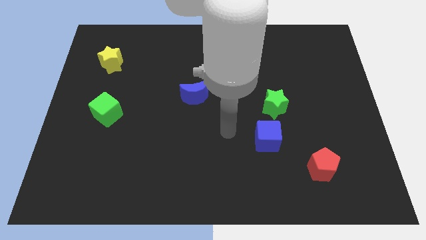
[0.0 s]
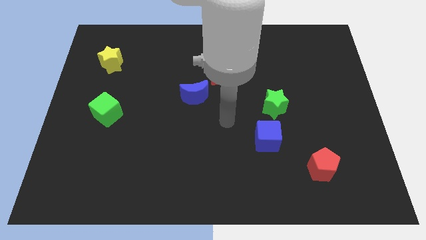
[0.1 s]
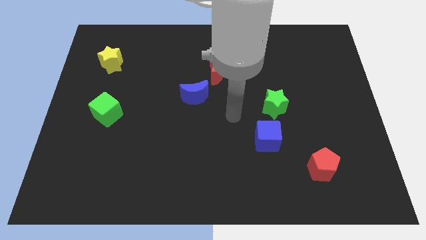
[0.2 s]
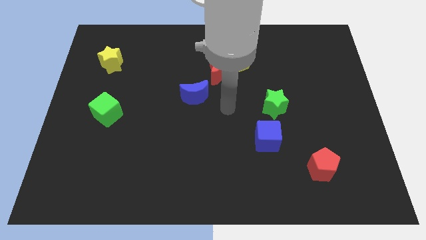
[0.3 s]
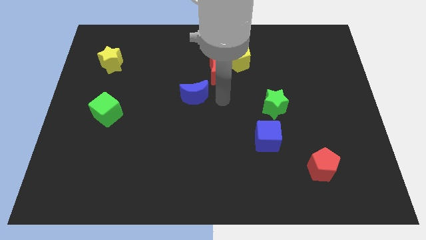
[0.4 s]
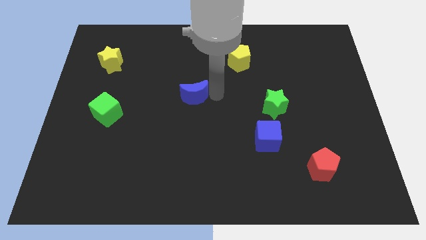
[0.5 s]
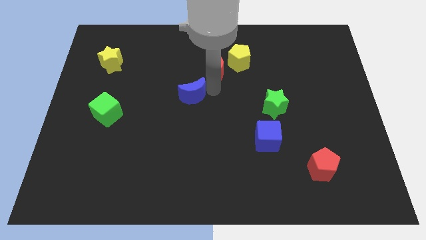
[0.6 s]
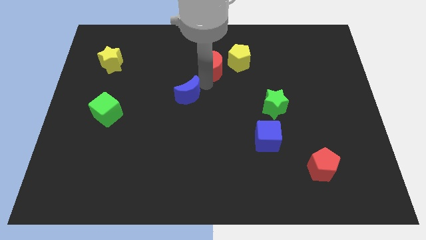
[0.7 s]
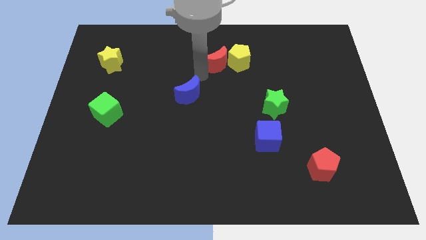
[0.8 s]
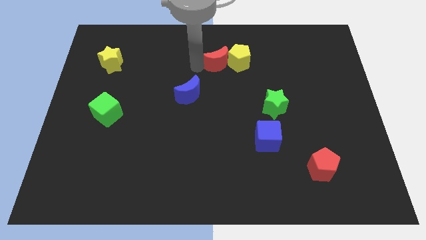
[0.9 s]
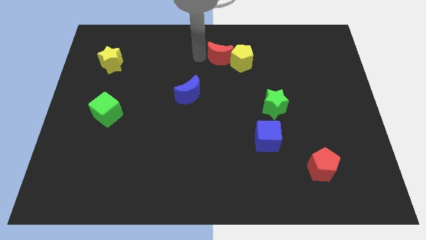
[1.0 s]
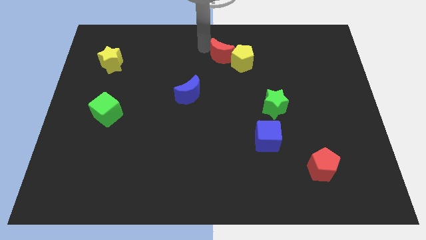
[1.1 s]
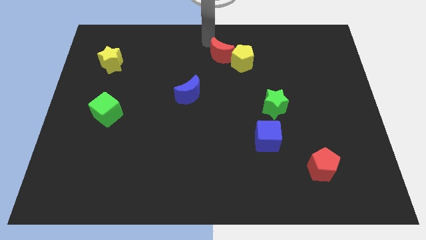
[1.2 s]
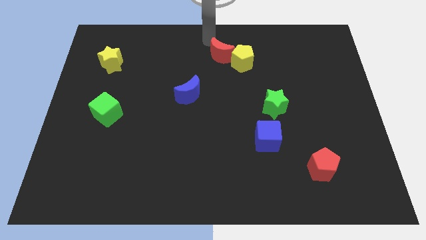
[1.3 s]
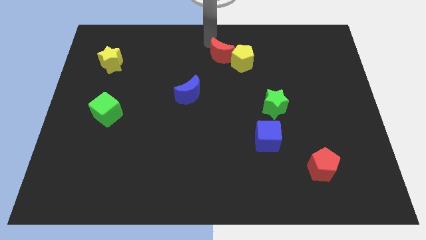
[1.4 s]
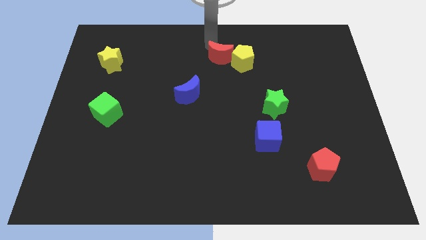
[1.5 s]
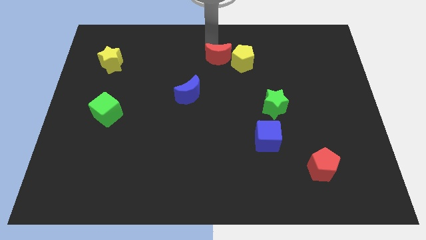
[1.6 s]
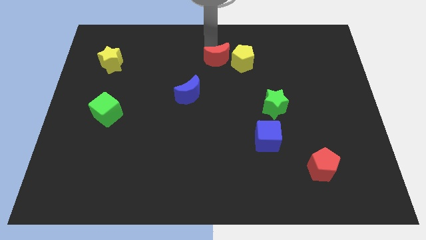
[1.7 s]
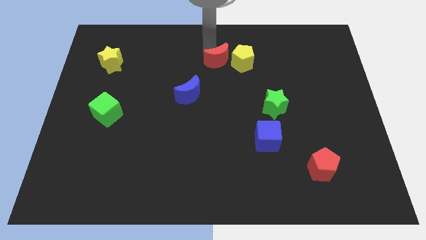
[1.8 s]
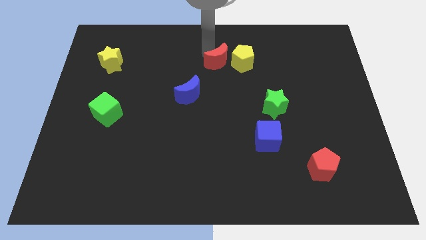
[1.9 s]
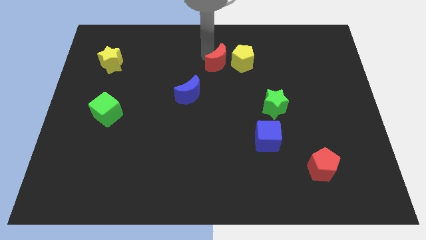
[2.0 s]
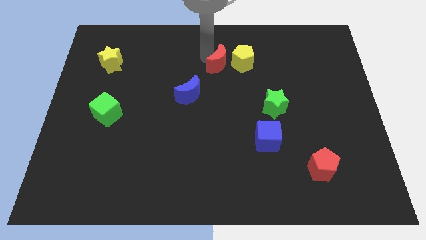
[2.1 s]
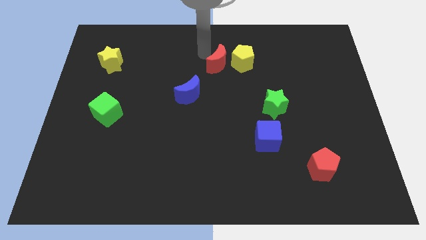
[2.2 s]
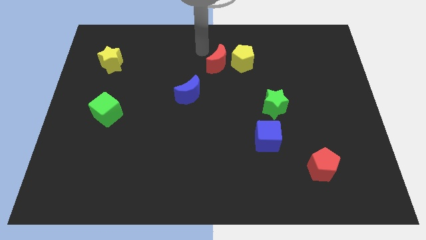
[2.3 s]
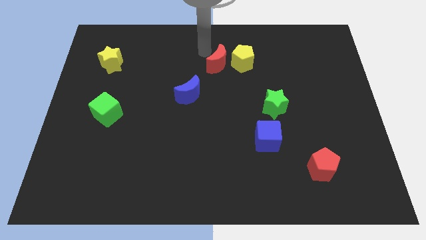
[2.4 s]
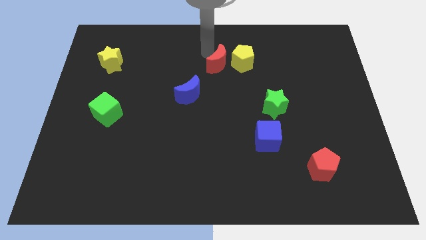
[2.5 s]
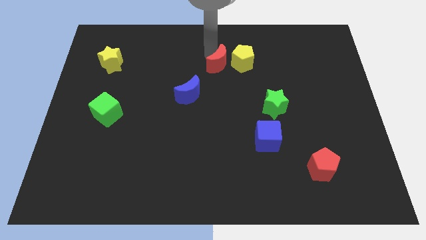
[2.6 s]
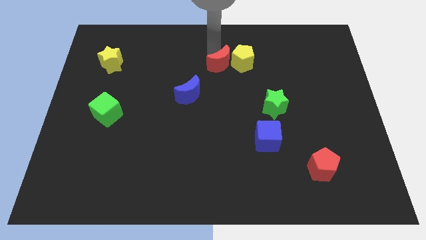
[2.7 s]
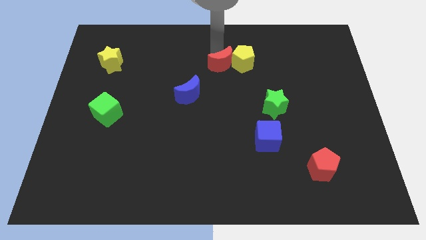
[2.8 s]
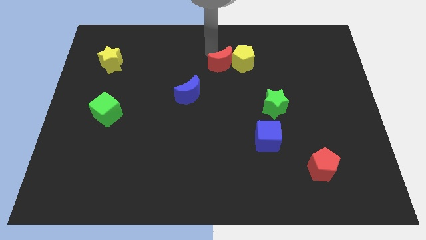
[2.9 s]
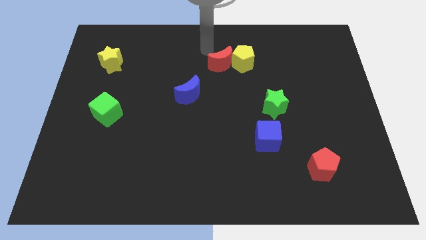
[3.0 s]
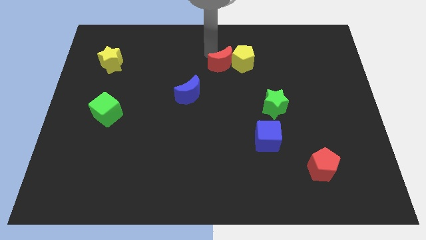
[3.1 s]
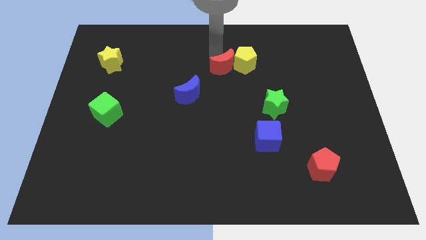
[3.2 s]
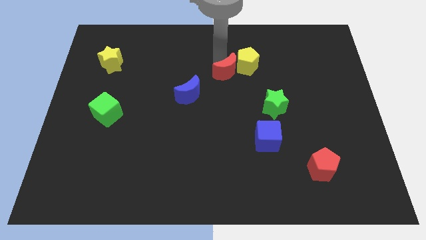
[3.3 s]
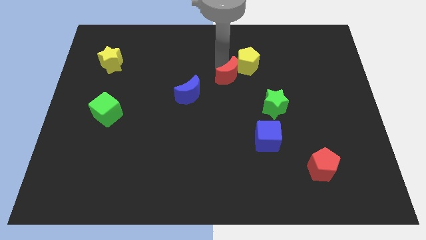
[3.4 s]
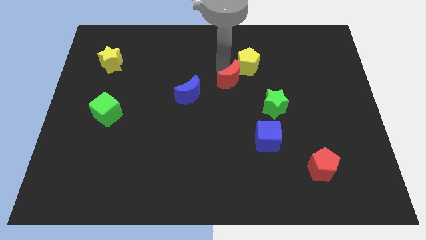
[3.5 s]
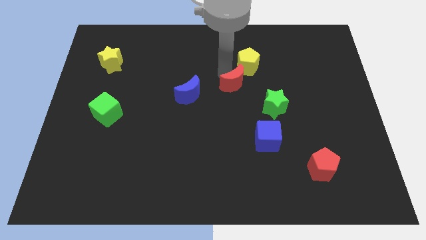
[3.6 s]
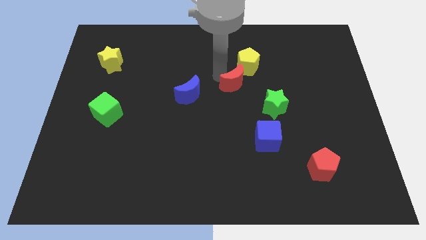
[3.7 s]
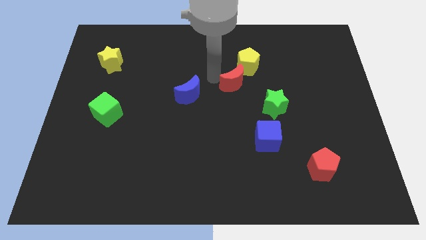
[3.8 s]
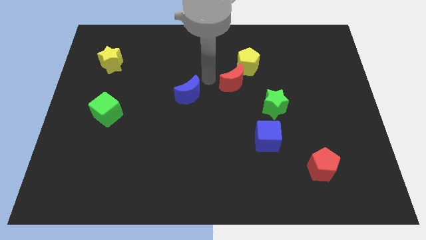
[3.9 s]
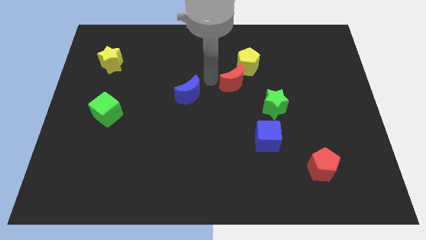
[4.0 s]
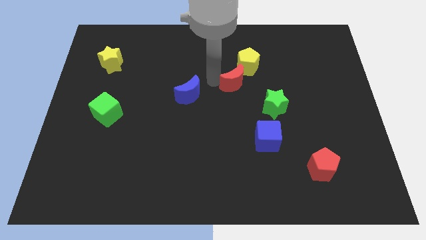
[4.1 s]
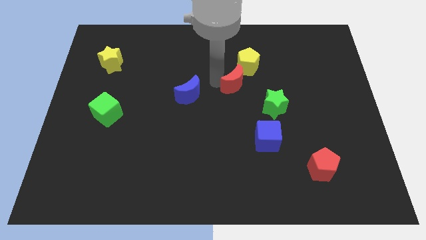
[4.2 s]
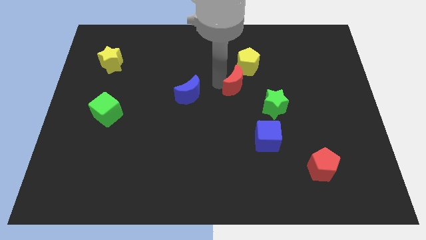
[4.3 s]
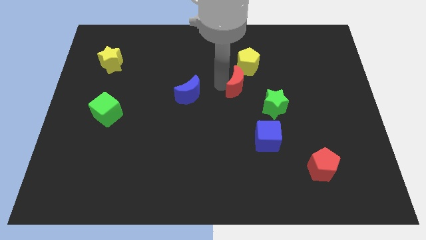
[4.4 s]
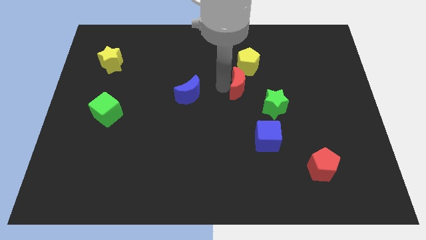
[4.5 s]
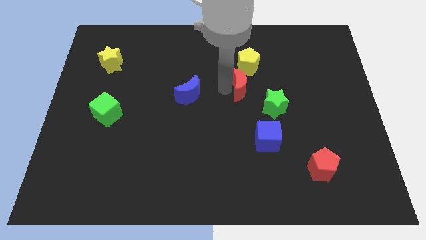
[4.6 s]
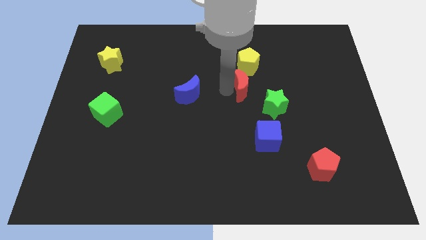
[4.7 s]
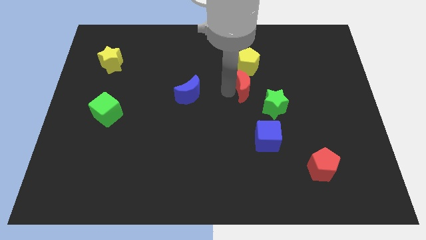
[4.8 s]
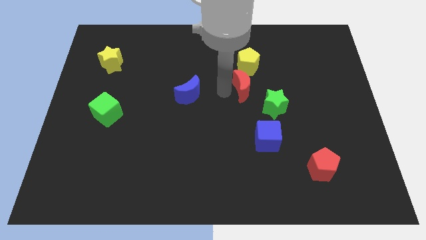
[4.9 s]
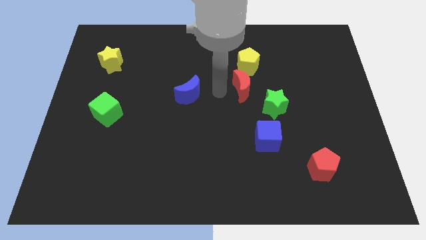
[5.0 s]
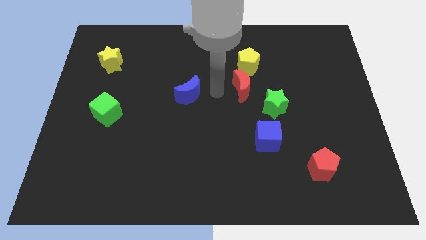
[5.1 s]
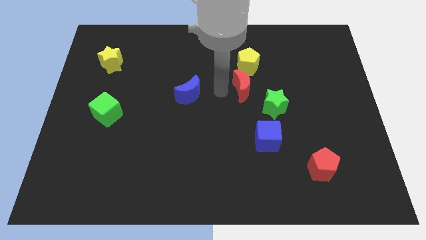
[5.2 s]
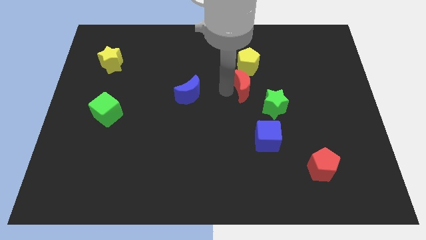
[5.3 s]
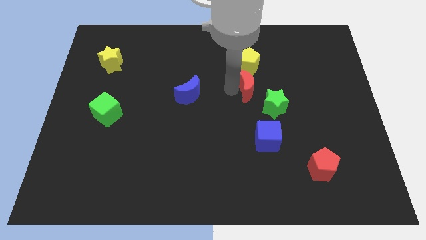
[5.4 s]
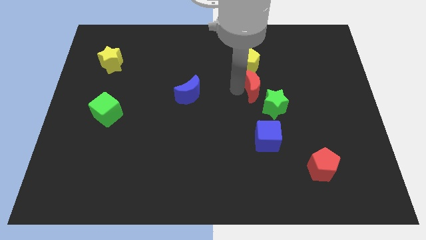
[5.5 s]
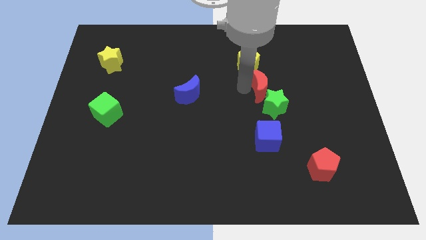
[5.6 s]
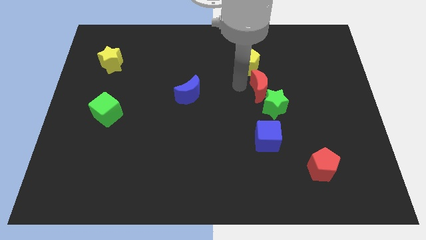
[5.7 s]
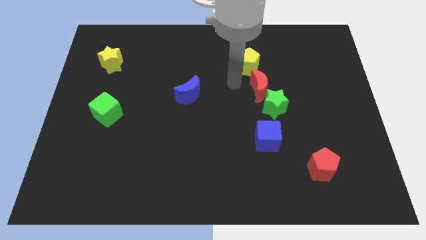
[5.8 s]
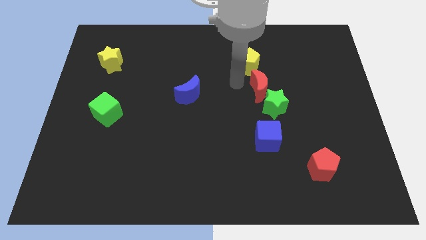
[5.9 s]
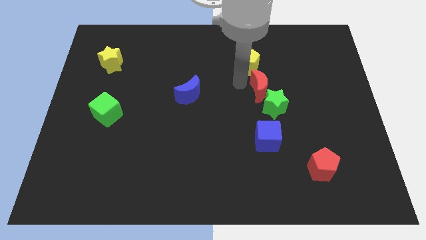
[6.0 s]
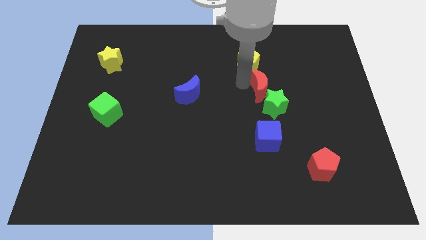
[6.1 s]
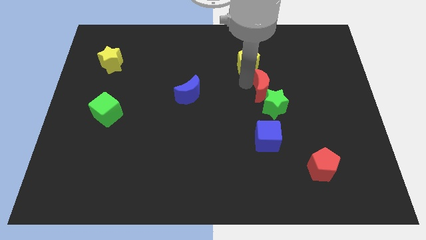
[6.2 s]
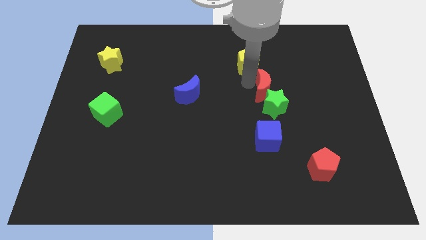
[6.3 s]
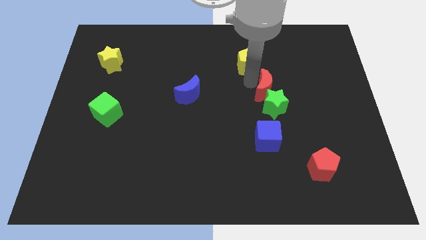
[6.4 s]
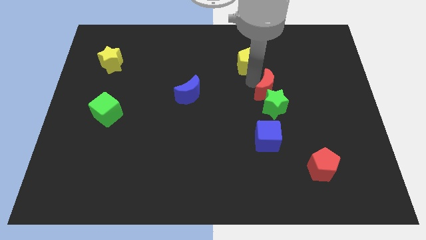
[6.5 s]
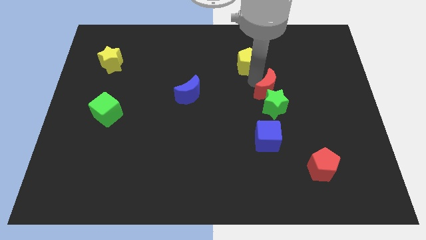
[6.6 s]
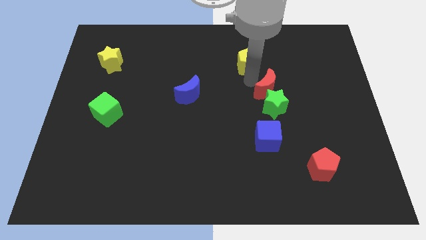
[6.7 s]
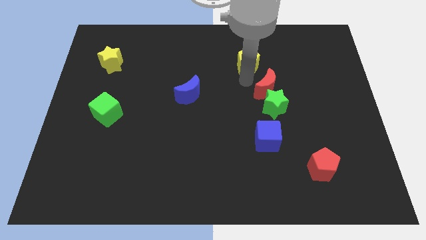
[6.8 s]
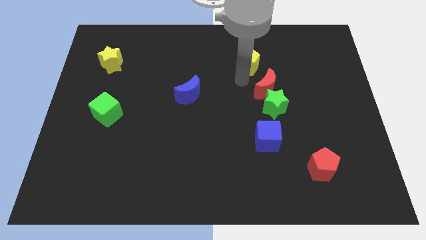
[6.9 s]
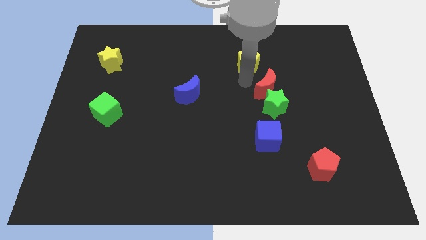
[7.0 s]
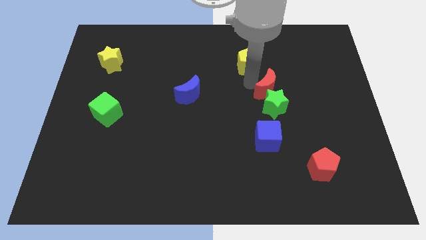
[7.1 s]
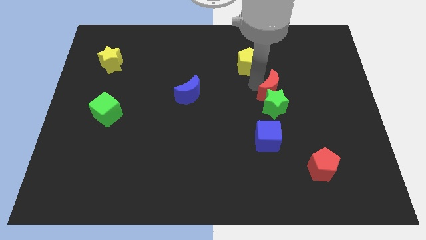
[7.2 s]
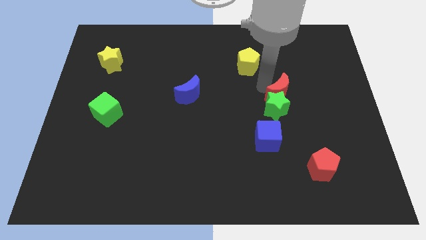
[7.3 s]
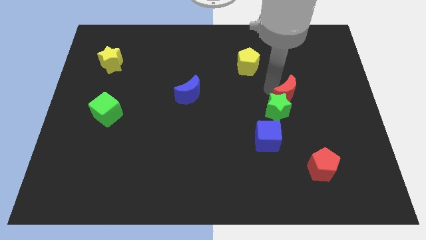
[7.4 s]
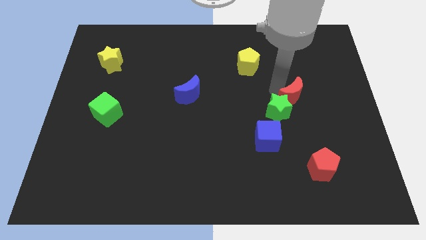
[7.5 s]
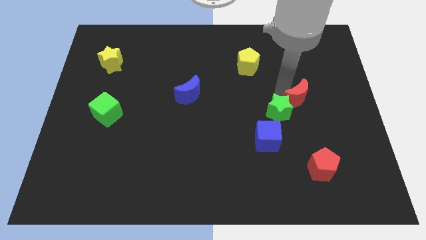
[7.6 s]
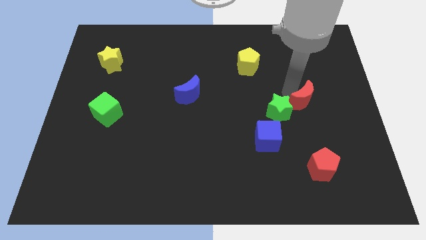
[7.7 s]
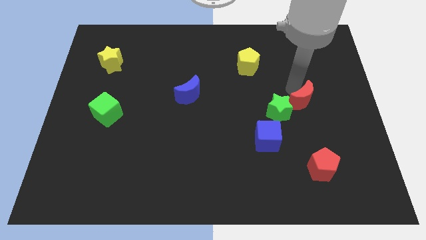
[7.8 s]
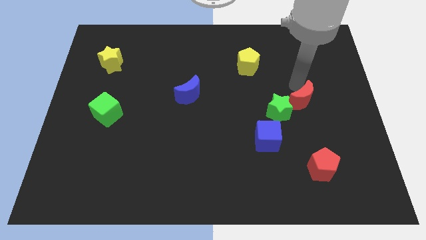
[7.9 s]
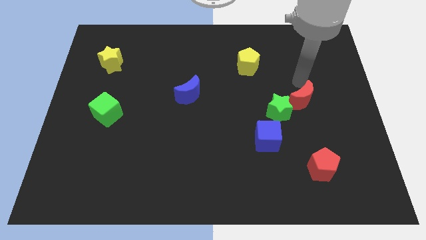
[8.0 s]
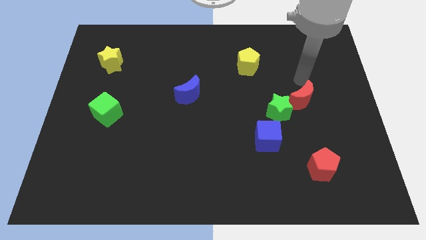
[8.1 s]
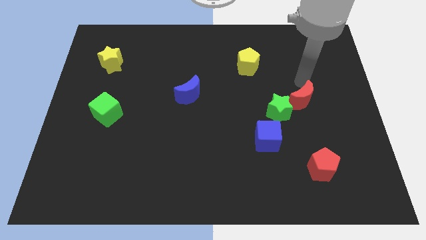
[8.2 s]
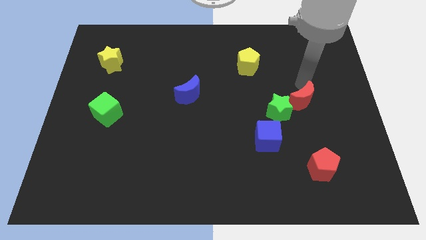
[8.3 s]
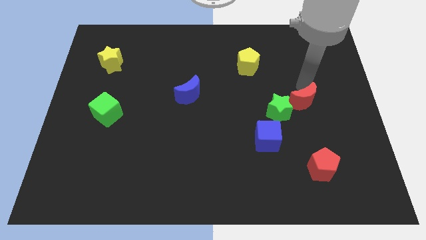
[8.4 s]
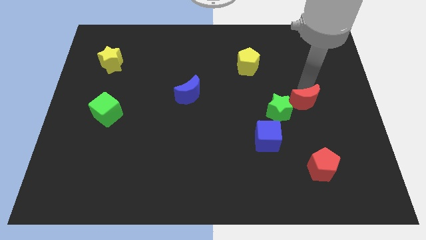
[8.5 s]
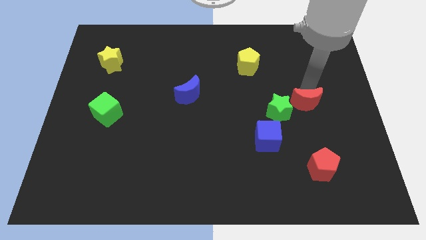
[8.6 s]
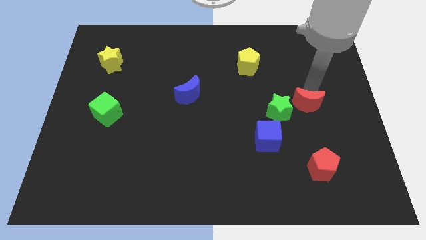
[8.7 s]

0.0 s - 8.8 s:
push the red moon diagonally down and right
